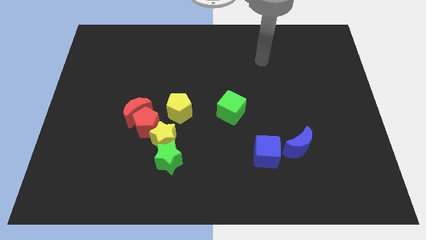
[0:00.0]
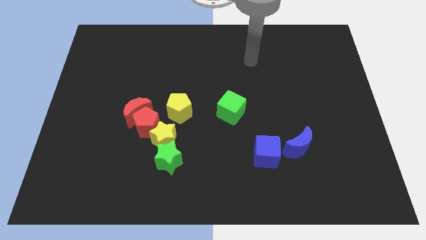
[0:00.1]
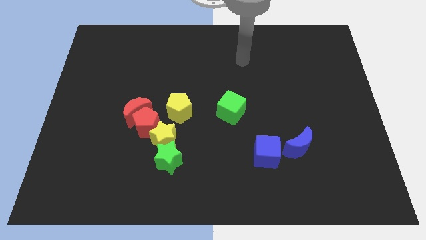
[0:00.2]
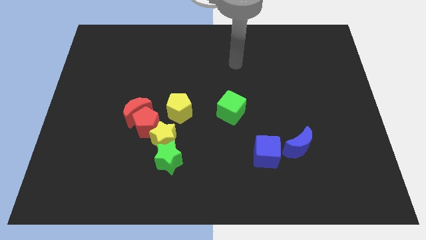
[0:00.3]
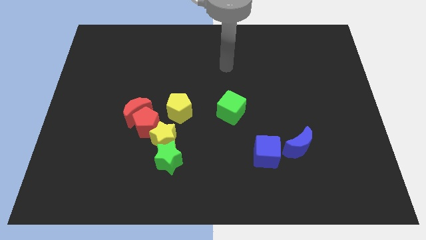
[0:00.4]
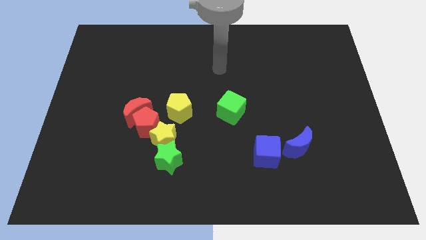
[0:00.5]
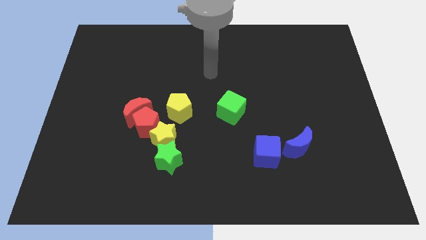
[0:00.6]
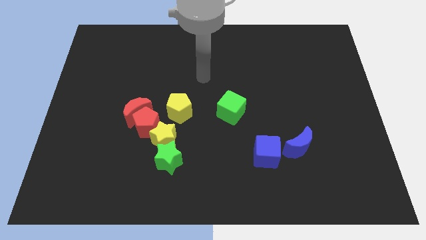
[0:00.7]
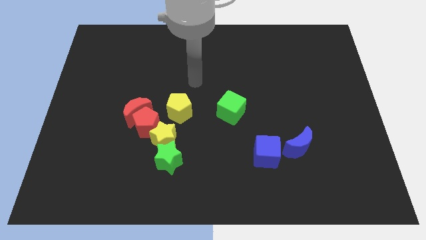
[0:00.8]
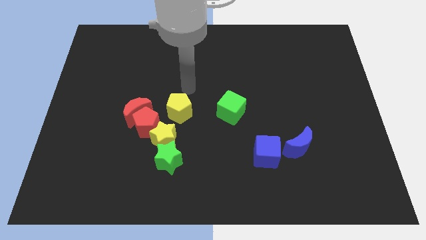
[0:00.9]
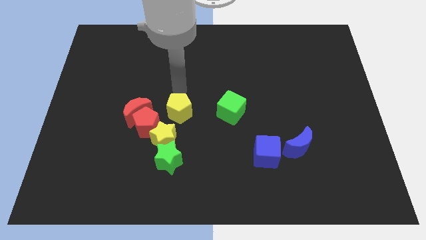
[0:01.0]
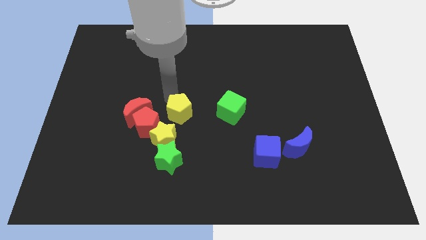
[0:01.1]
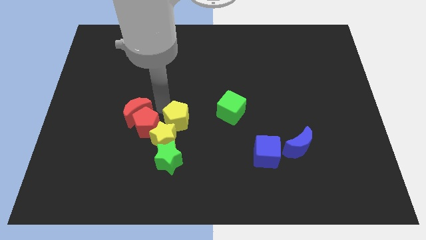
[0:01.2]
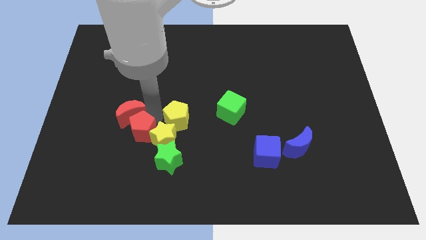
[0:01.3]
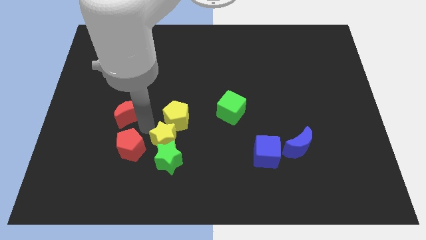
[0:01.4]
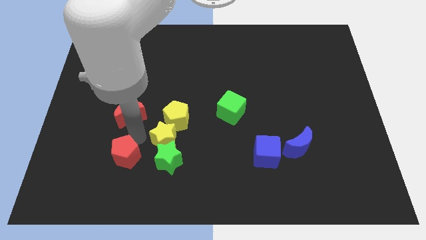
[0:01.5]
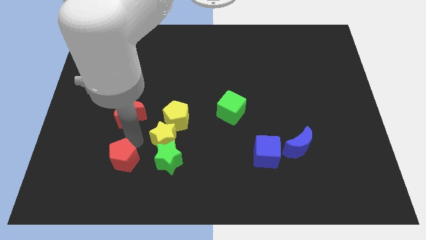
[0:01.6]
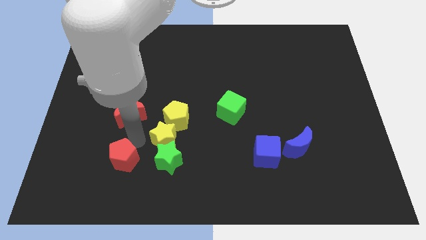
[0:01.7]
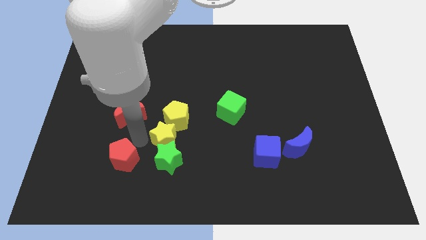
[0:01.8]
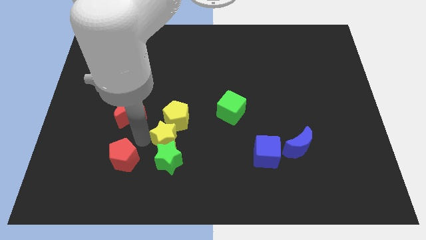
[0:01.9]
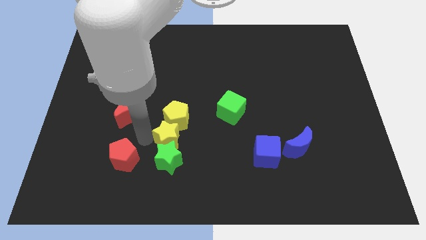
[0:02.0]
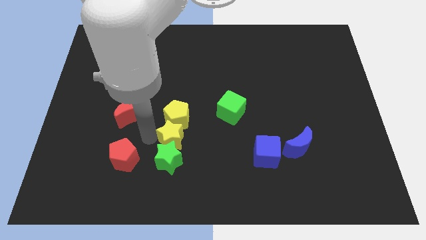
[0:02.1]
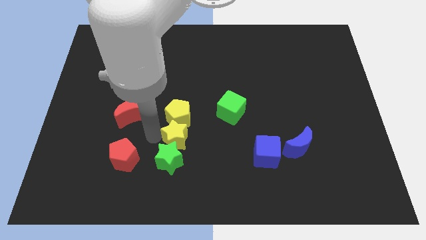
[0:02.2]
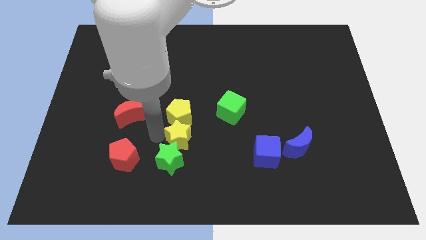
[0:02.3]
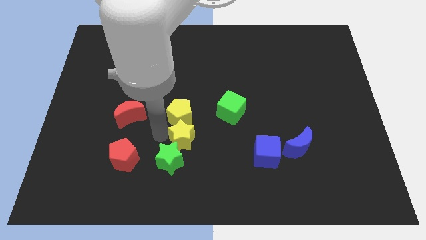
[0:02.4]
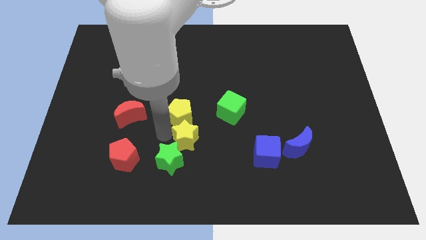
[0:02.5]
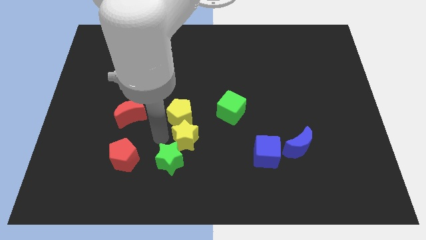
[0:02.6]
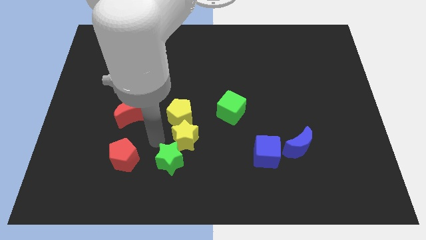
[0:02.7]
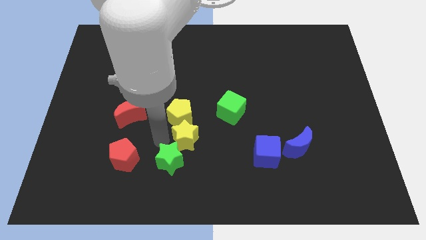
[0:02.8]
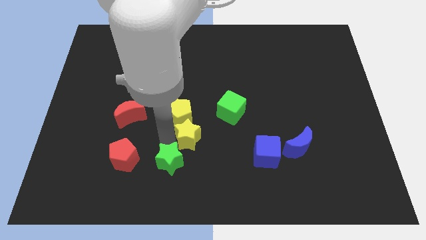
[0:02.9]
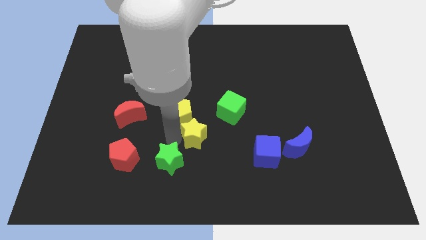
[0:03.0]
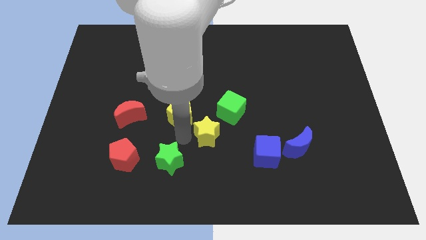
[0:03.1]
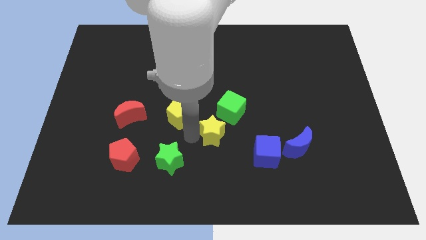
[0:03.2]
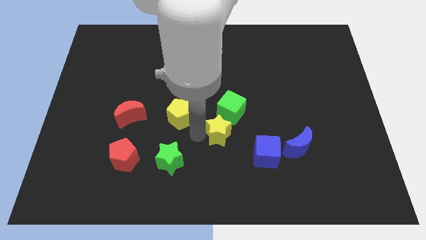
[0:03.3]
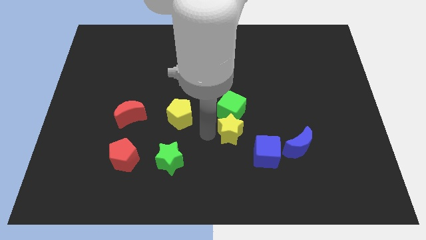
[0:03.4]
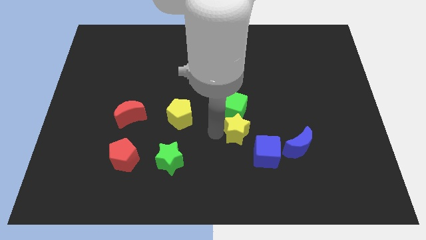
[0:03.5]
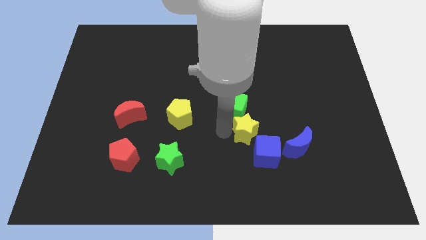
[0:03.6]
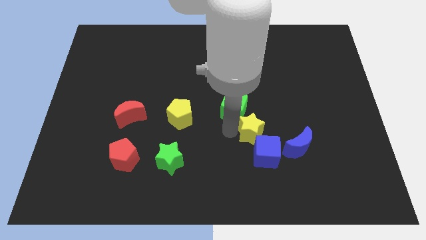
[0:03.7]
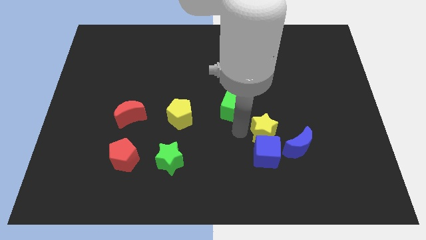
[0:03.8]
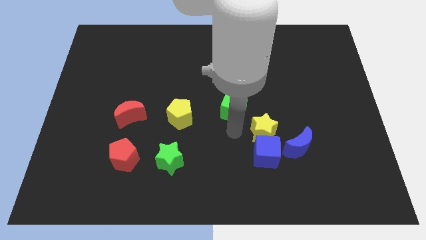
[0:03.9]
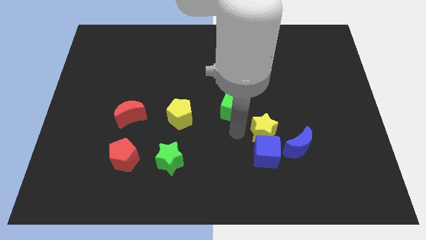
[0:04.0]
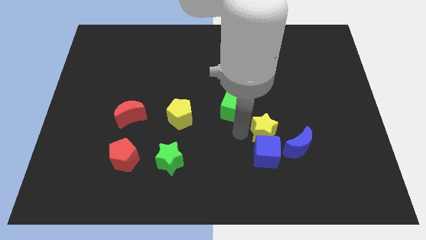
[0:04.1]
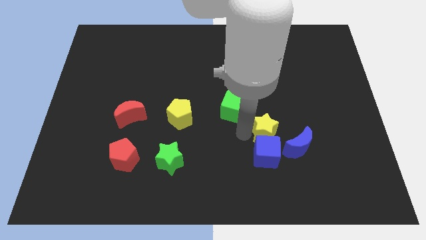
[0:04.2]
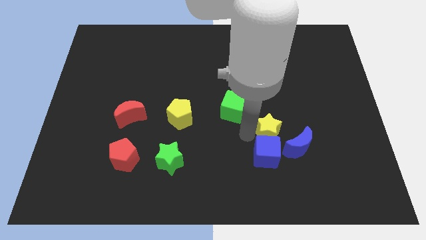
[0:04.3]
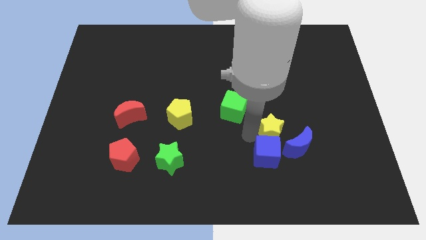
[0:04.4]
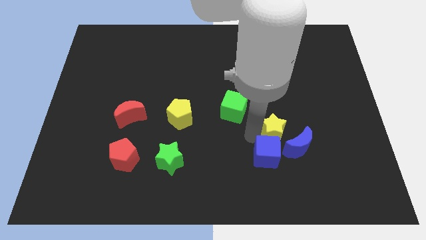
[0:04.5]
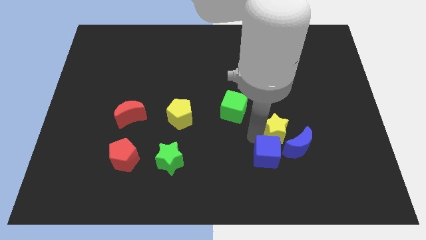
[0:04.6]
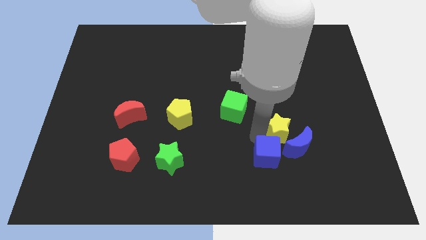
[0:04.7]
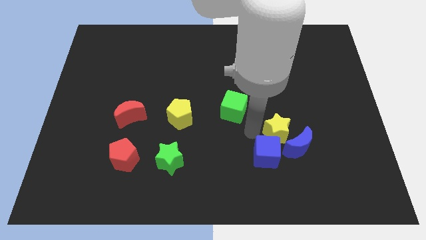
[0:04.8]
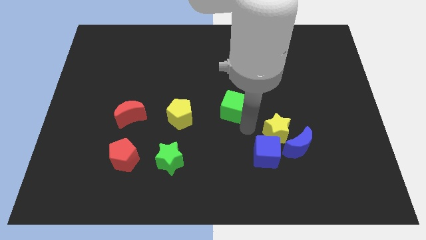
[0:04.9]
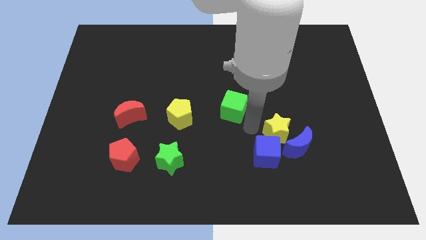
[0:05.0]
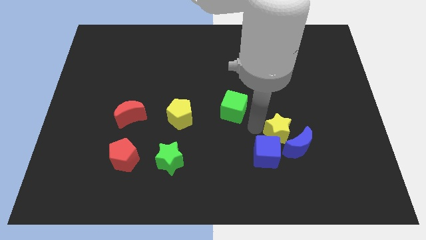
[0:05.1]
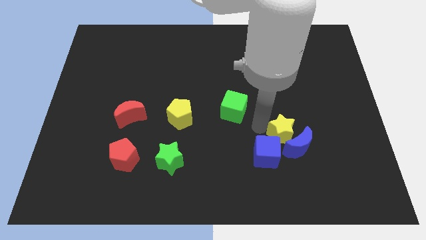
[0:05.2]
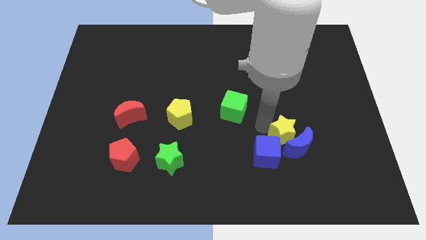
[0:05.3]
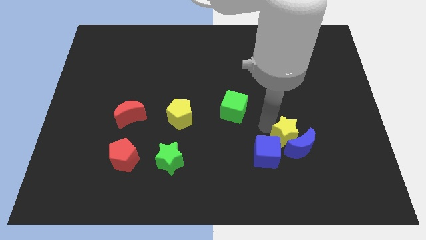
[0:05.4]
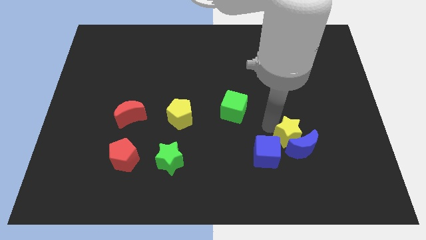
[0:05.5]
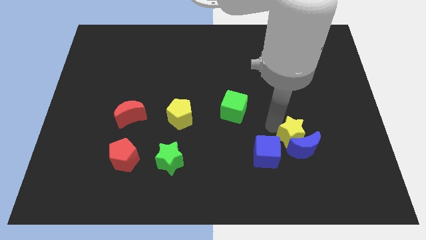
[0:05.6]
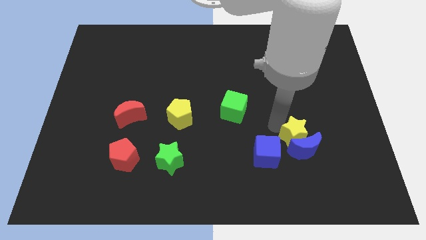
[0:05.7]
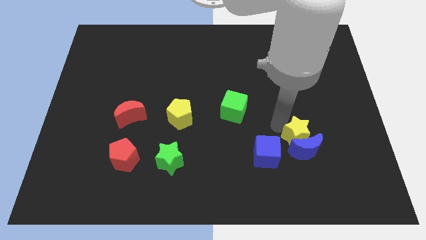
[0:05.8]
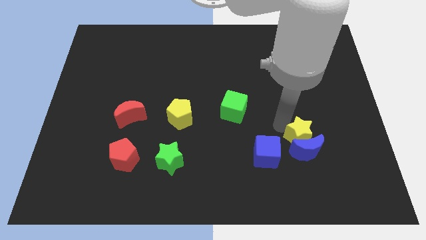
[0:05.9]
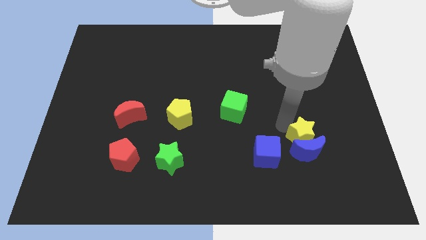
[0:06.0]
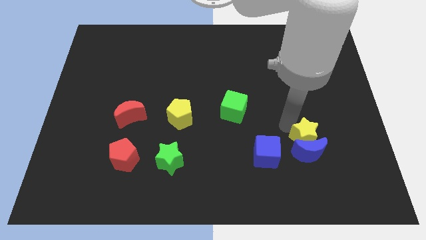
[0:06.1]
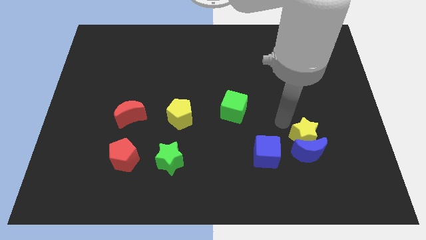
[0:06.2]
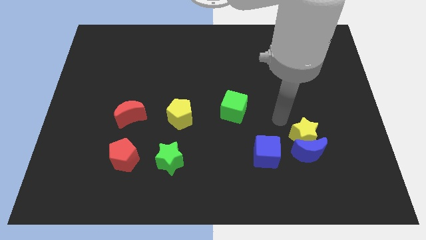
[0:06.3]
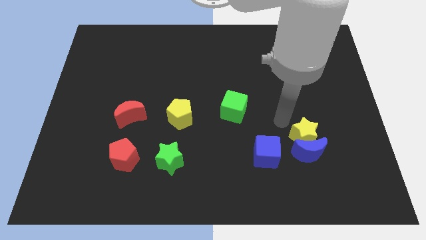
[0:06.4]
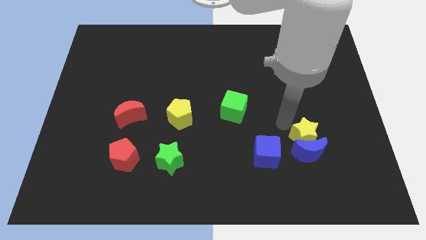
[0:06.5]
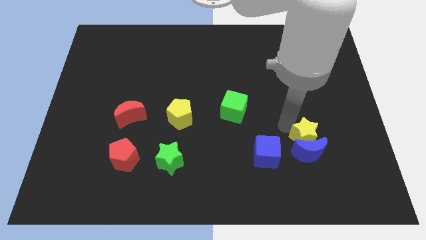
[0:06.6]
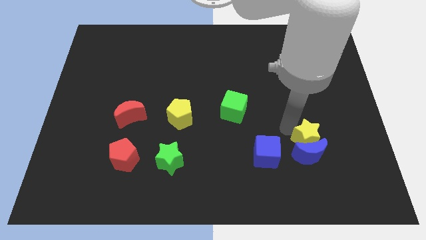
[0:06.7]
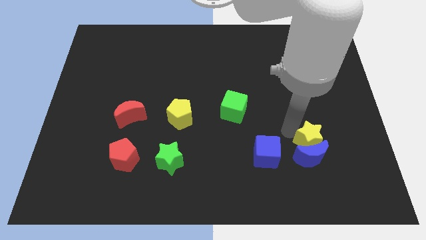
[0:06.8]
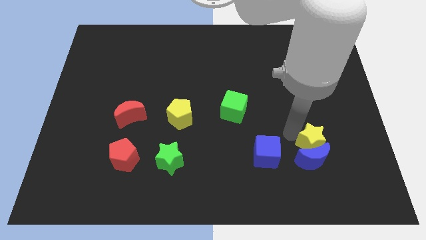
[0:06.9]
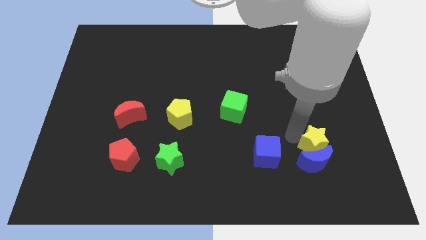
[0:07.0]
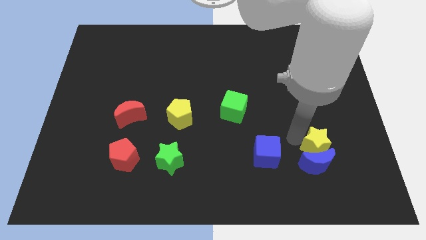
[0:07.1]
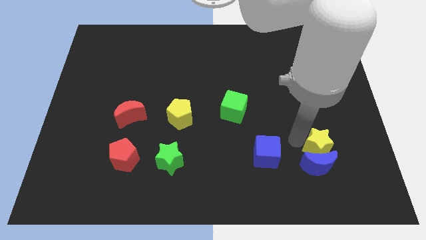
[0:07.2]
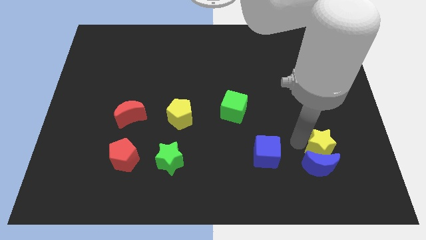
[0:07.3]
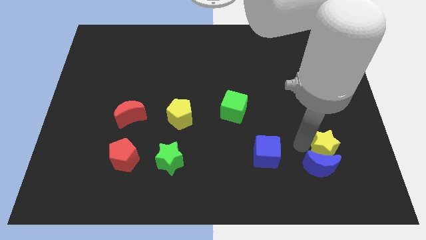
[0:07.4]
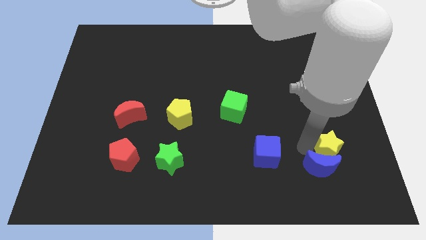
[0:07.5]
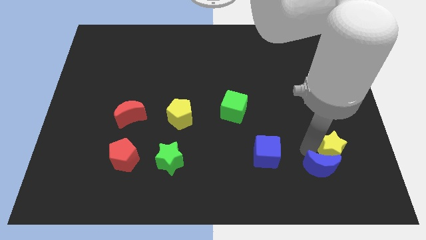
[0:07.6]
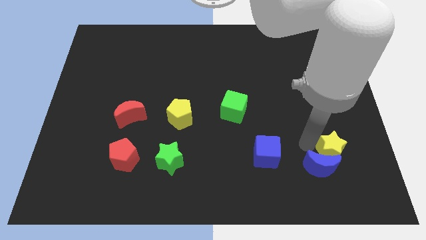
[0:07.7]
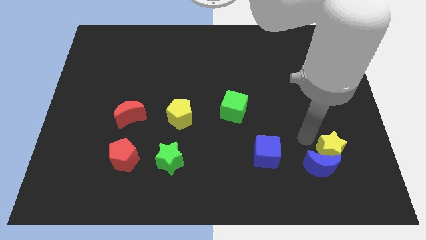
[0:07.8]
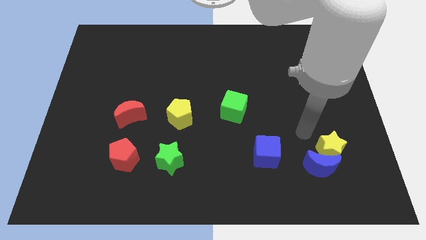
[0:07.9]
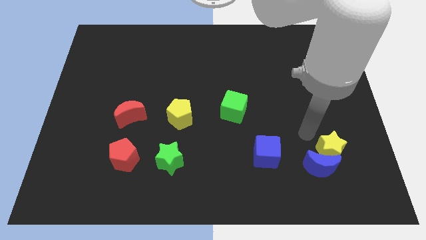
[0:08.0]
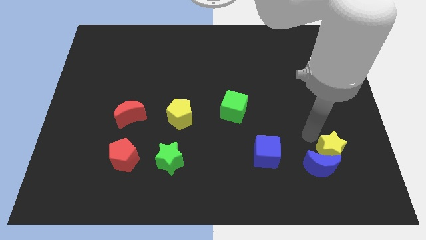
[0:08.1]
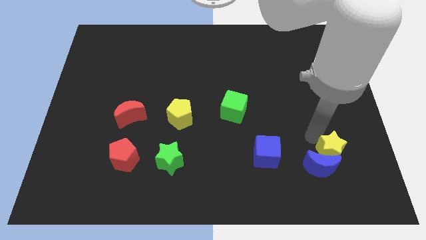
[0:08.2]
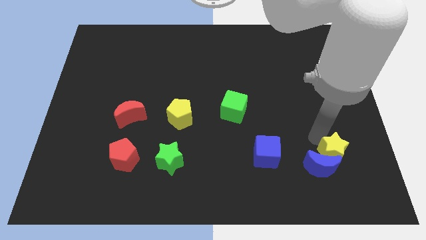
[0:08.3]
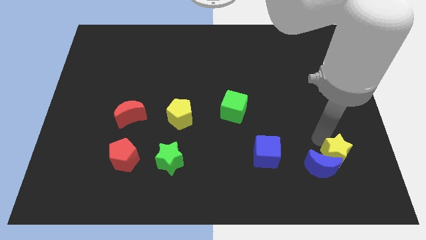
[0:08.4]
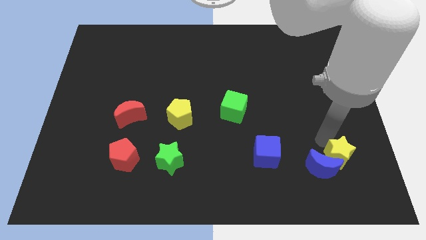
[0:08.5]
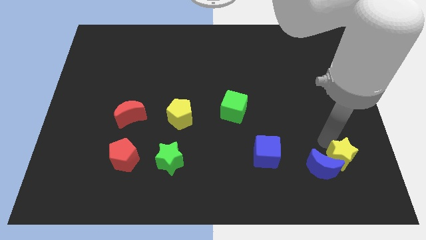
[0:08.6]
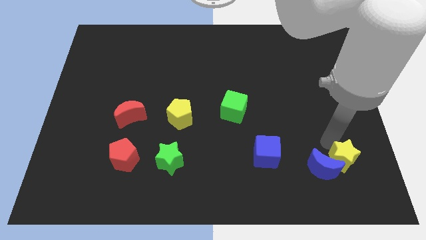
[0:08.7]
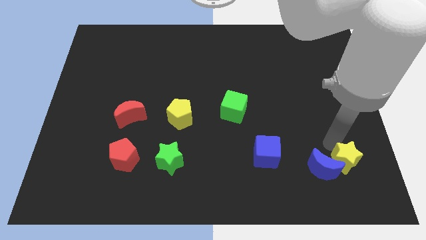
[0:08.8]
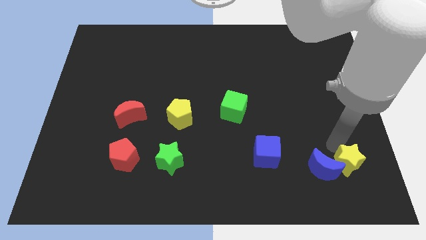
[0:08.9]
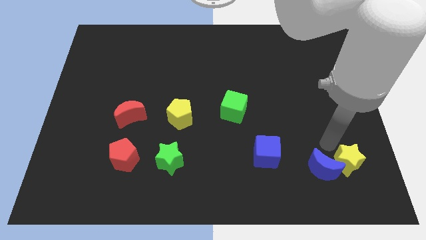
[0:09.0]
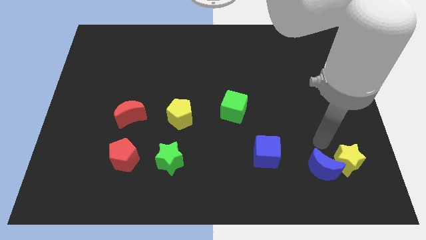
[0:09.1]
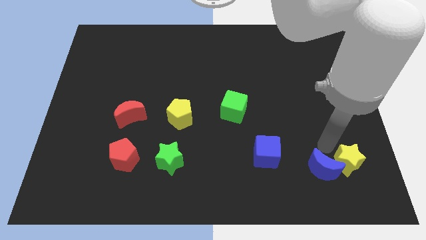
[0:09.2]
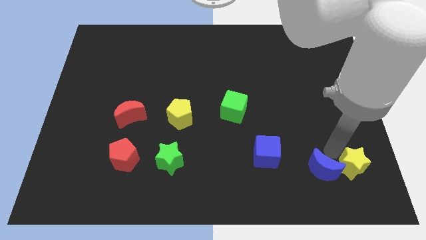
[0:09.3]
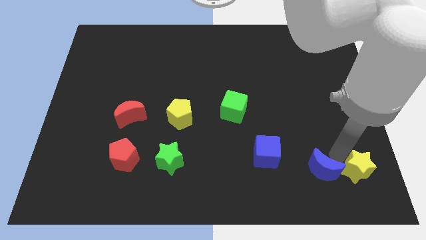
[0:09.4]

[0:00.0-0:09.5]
push the yellow star to the bottom right corner
